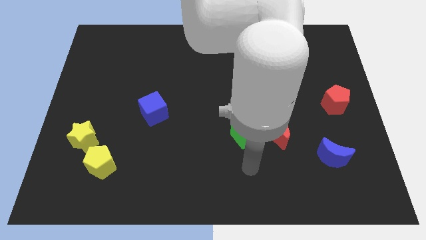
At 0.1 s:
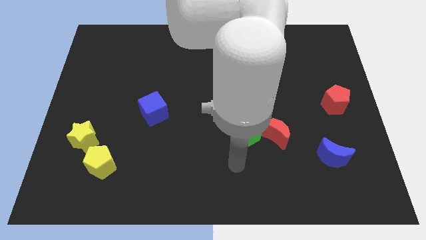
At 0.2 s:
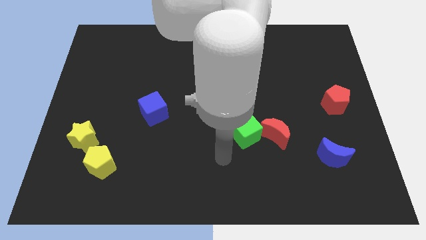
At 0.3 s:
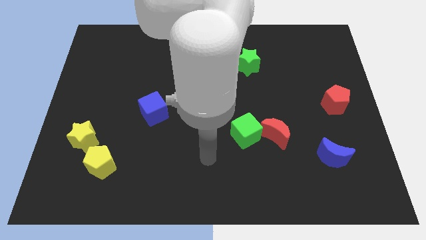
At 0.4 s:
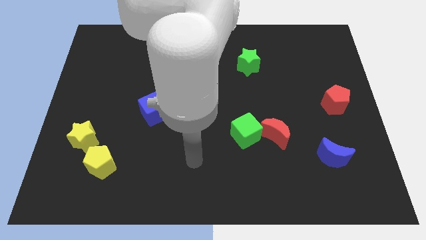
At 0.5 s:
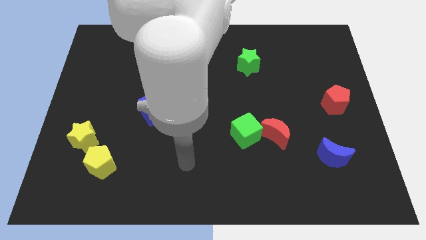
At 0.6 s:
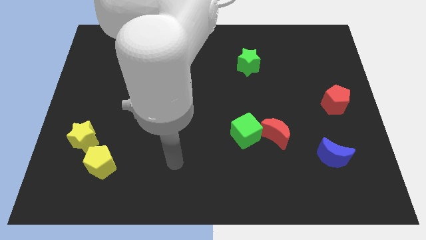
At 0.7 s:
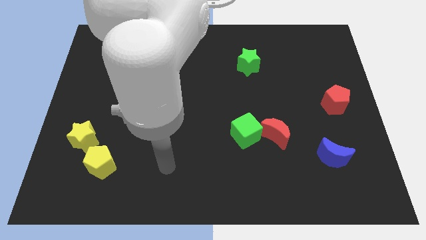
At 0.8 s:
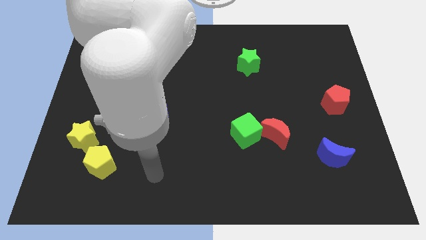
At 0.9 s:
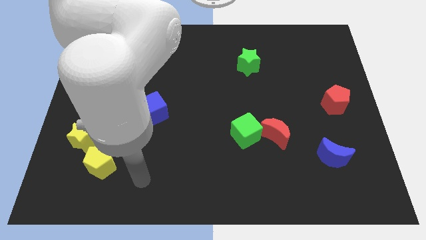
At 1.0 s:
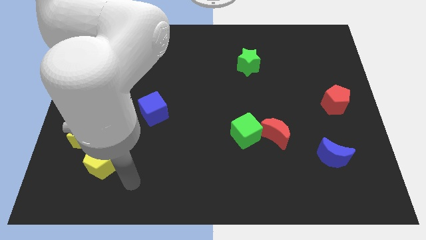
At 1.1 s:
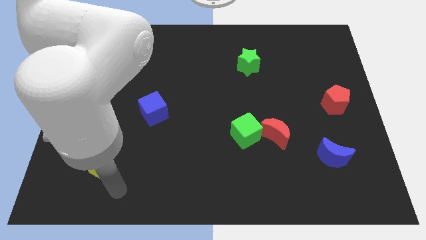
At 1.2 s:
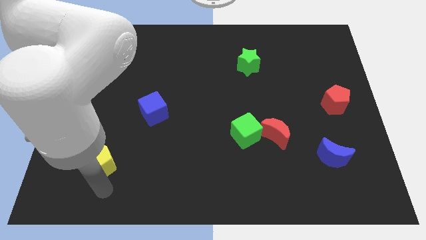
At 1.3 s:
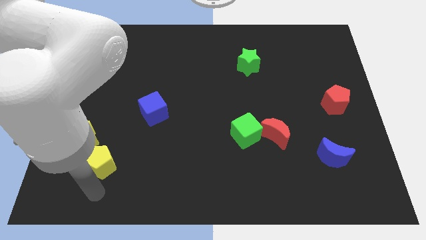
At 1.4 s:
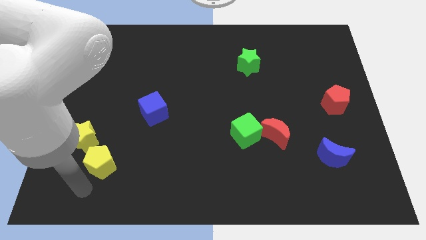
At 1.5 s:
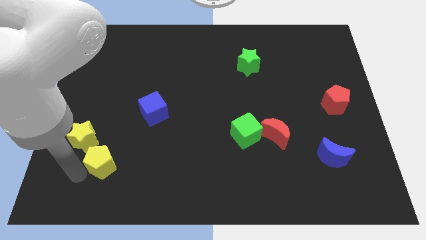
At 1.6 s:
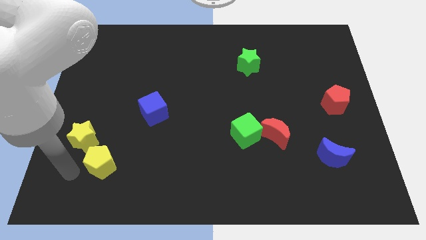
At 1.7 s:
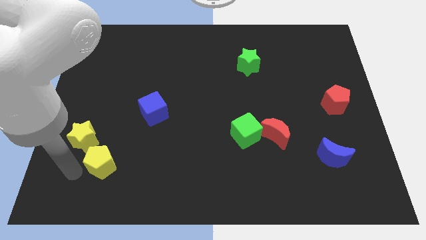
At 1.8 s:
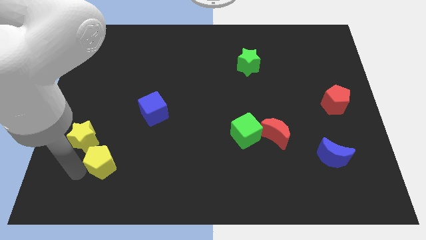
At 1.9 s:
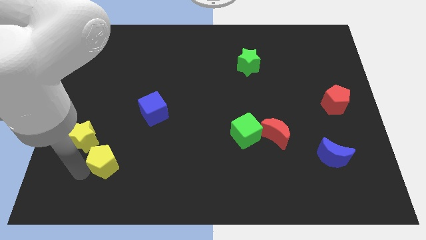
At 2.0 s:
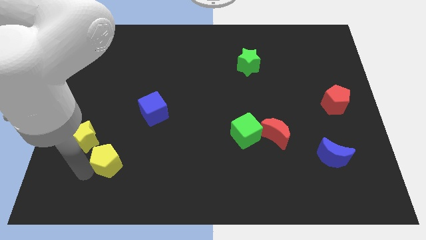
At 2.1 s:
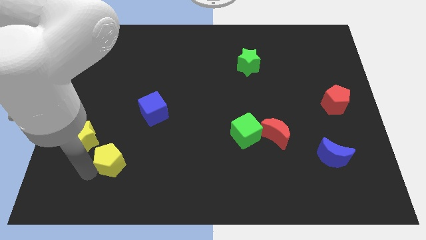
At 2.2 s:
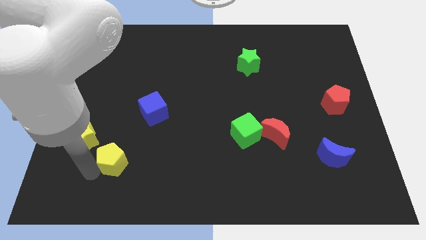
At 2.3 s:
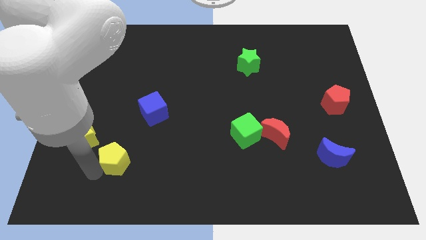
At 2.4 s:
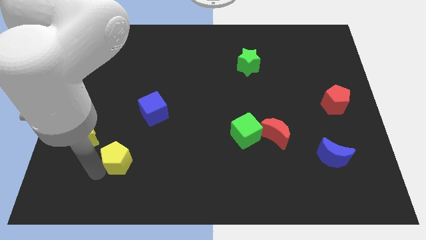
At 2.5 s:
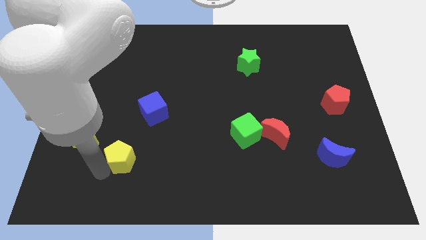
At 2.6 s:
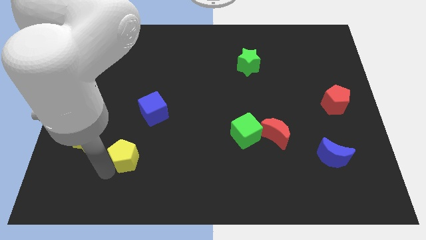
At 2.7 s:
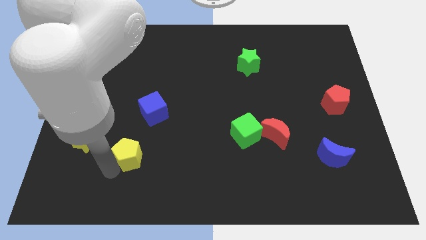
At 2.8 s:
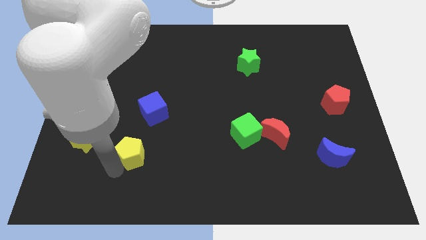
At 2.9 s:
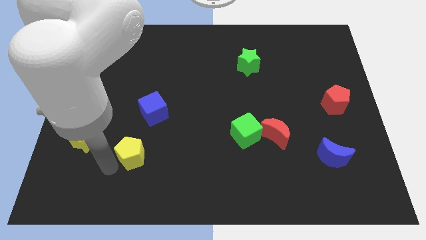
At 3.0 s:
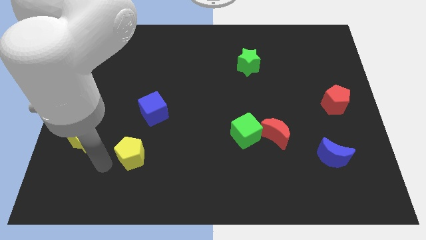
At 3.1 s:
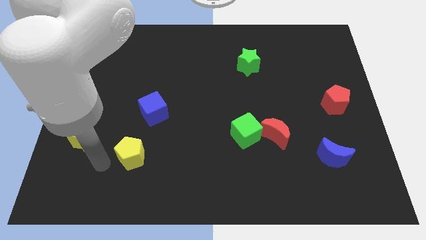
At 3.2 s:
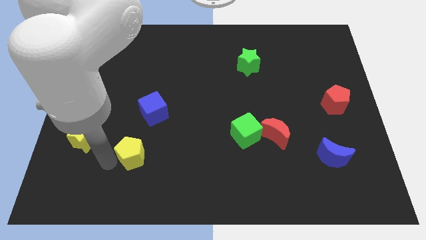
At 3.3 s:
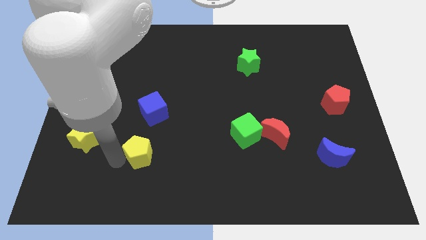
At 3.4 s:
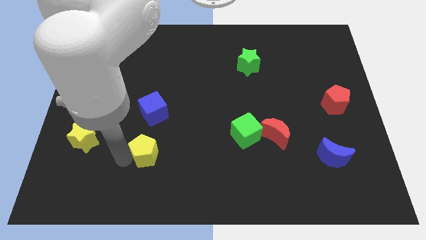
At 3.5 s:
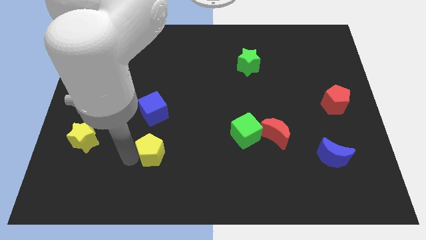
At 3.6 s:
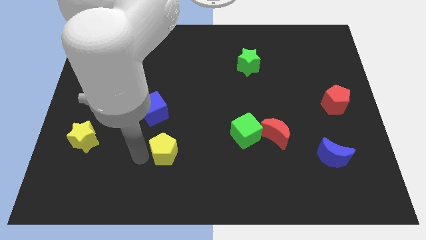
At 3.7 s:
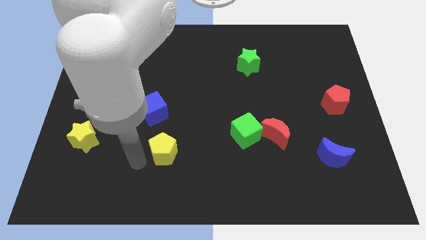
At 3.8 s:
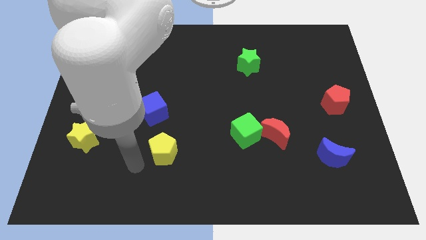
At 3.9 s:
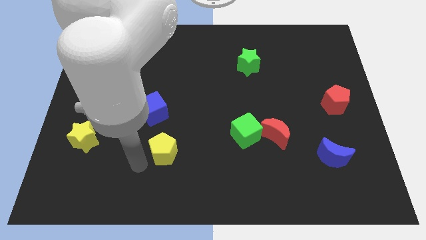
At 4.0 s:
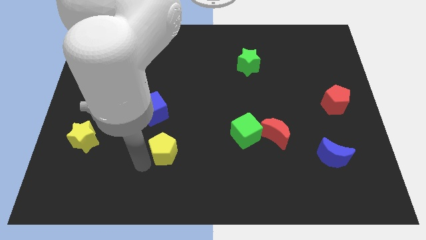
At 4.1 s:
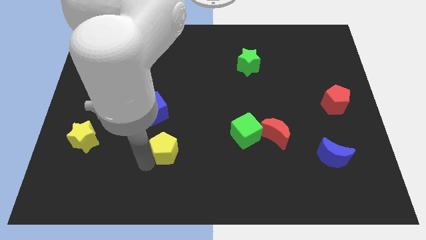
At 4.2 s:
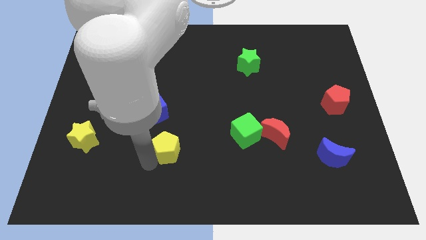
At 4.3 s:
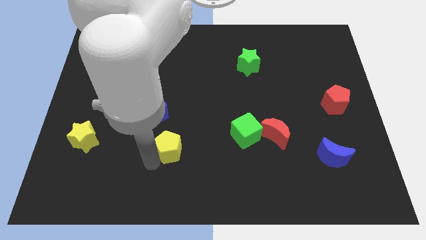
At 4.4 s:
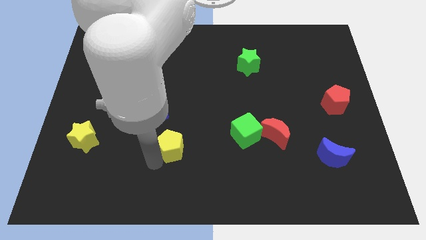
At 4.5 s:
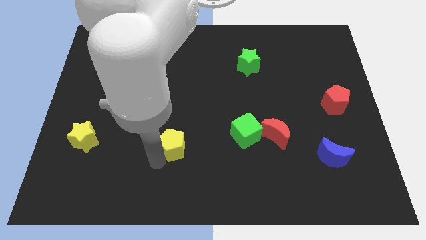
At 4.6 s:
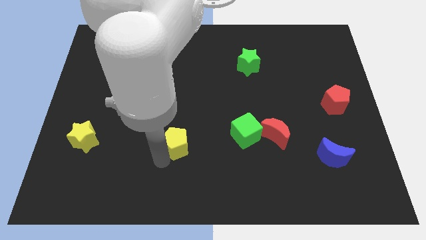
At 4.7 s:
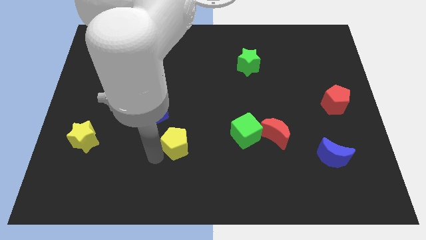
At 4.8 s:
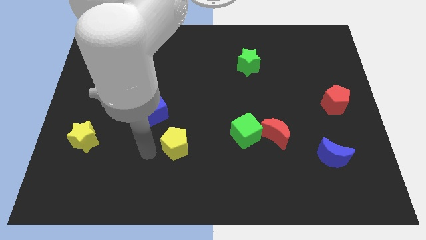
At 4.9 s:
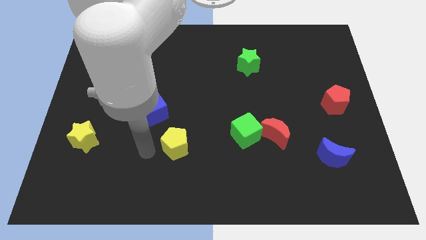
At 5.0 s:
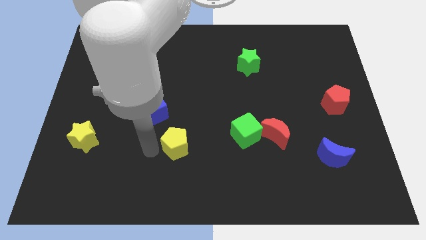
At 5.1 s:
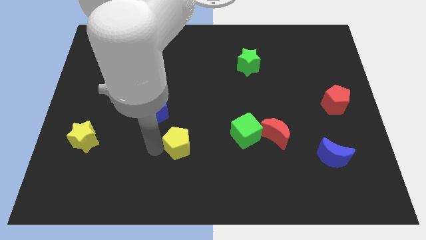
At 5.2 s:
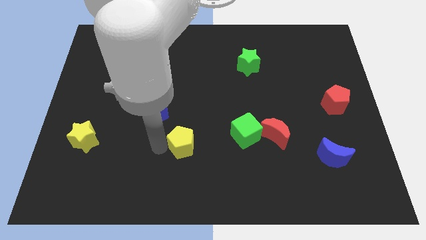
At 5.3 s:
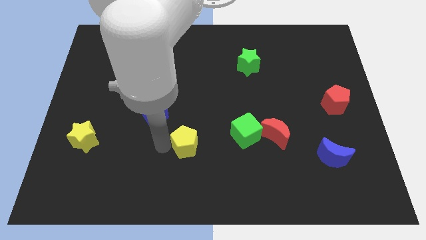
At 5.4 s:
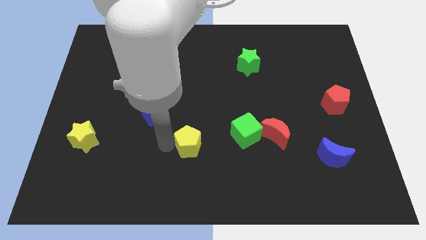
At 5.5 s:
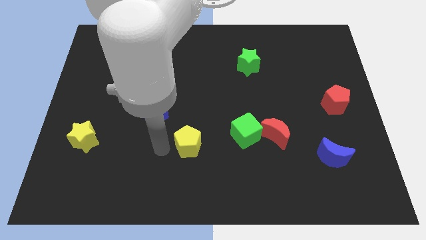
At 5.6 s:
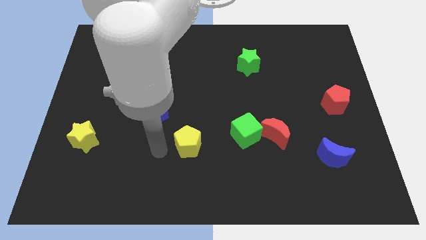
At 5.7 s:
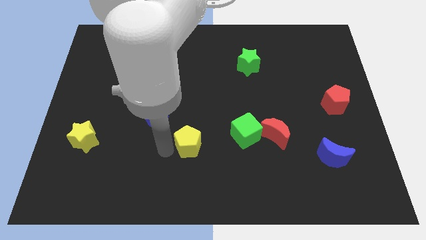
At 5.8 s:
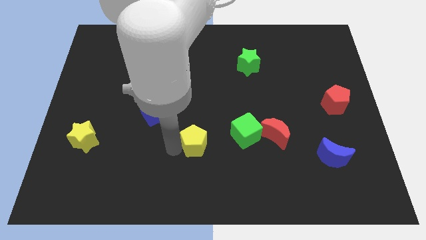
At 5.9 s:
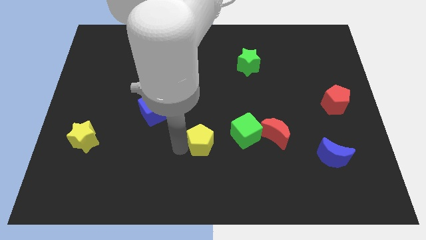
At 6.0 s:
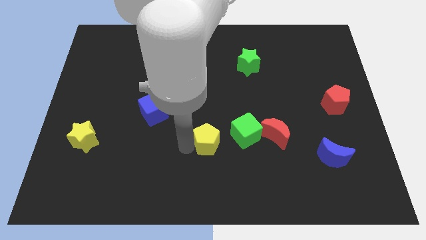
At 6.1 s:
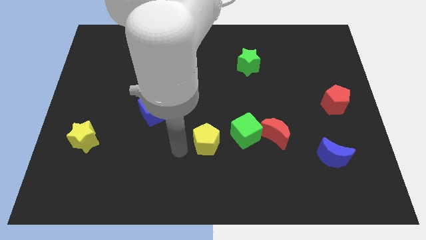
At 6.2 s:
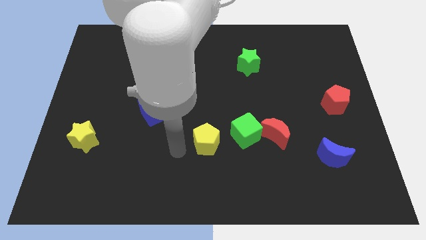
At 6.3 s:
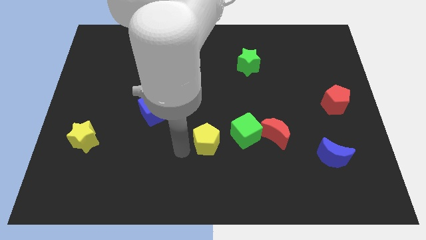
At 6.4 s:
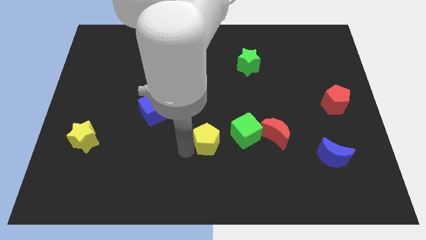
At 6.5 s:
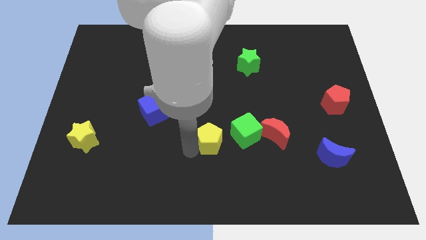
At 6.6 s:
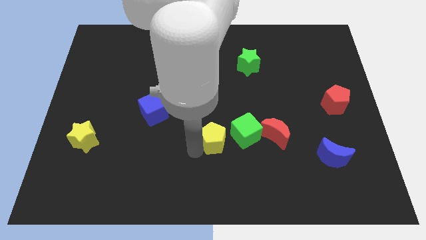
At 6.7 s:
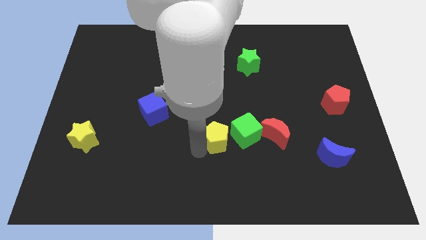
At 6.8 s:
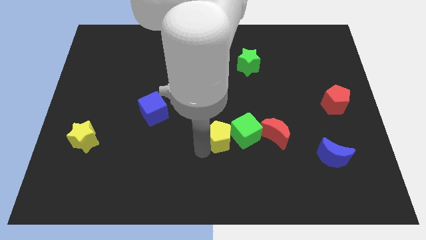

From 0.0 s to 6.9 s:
slide the yellow pentagon close to the green cube
